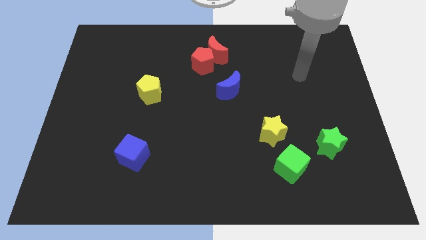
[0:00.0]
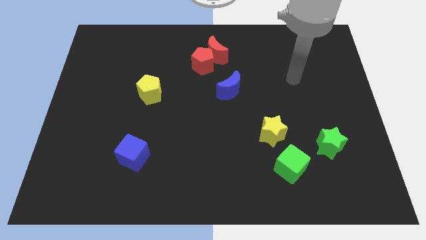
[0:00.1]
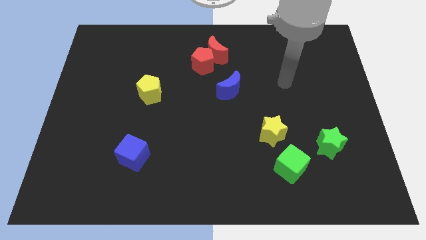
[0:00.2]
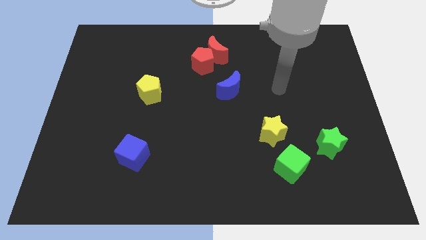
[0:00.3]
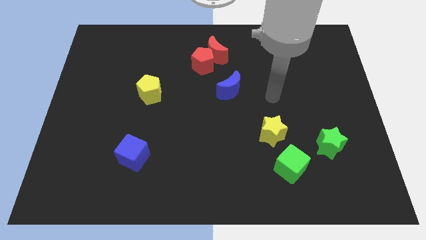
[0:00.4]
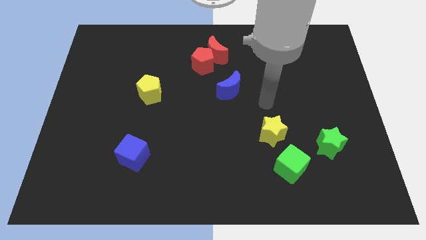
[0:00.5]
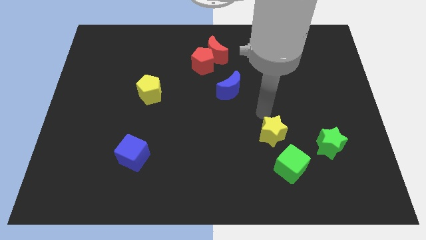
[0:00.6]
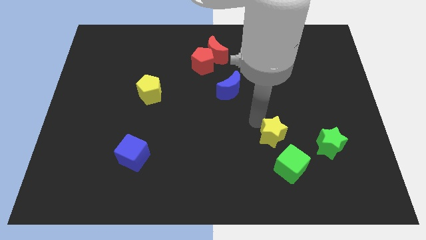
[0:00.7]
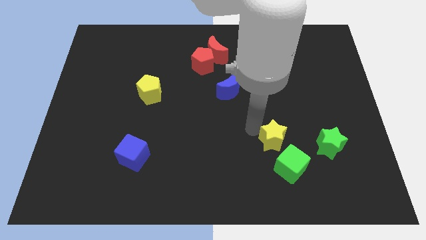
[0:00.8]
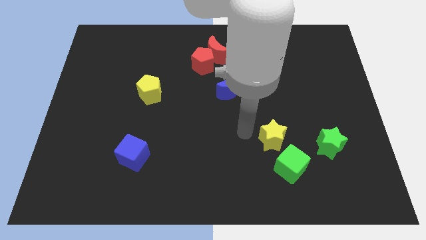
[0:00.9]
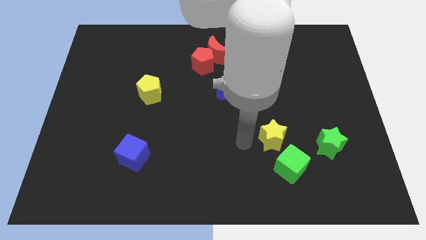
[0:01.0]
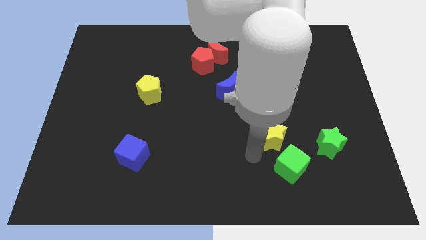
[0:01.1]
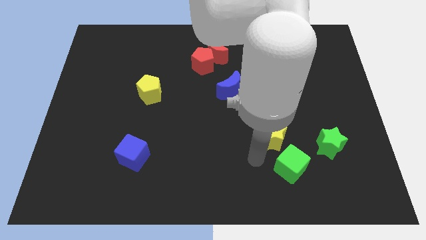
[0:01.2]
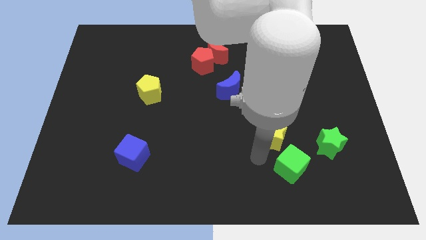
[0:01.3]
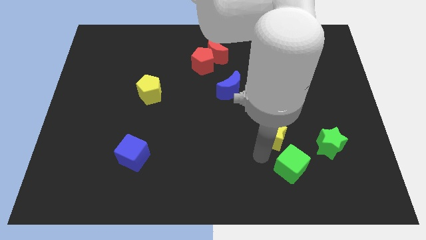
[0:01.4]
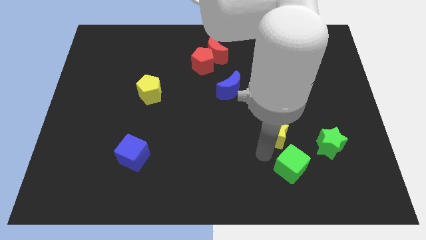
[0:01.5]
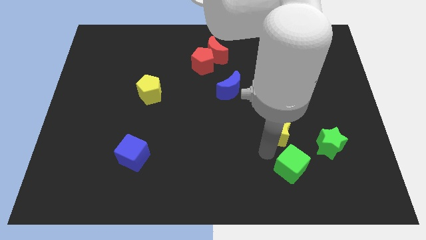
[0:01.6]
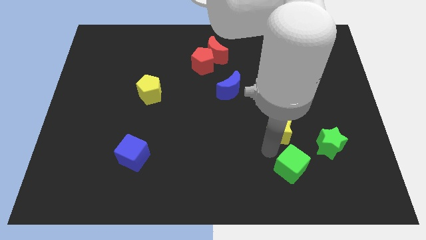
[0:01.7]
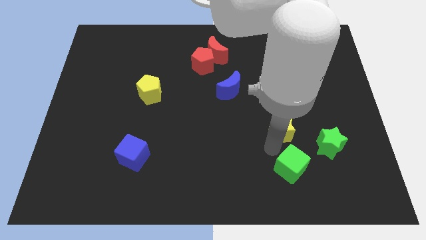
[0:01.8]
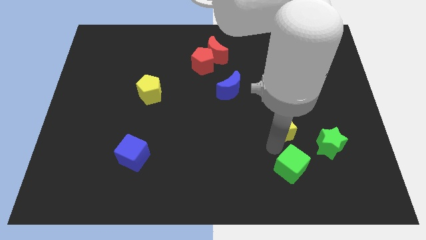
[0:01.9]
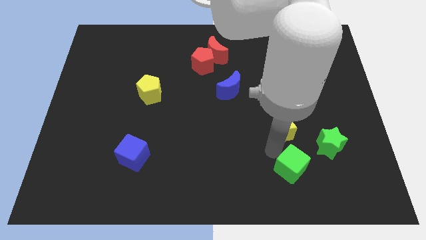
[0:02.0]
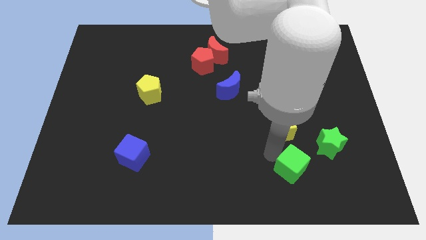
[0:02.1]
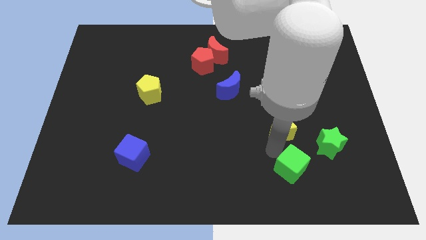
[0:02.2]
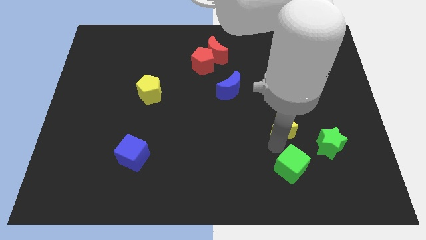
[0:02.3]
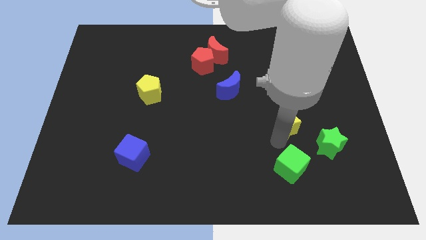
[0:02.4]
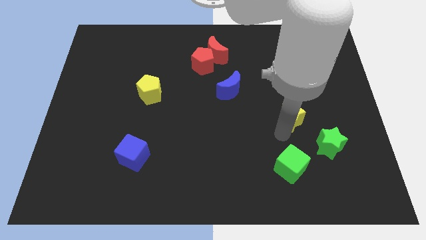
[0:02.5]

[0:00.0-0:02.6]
push the yellow star somewhat up and to the right diagonally

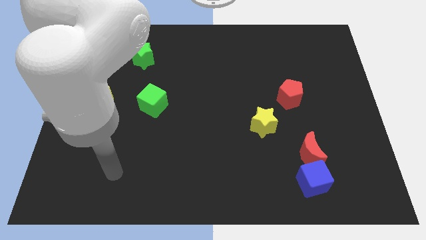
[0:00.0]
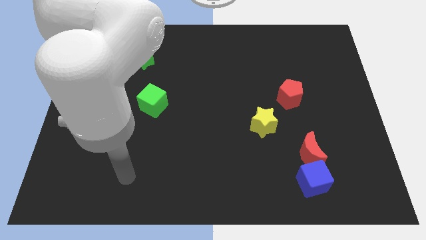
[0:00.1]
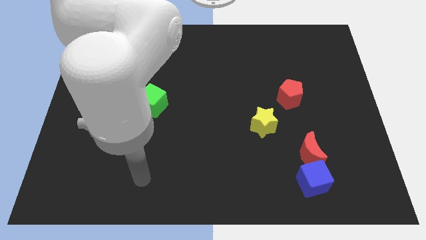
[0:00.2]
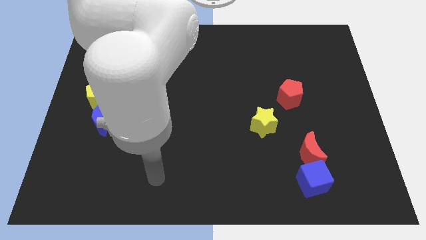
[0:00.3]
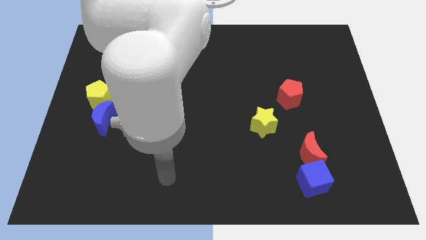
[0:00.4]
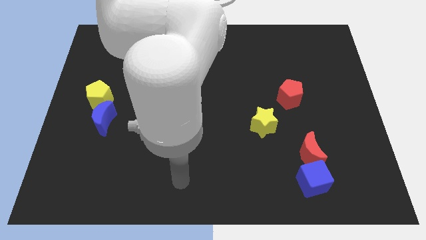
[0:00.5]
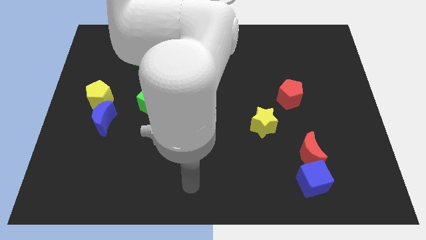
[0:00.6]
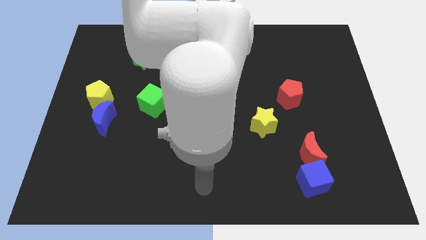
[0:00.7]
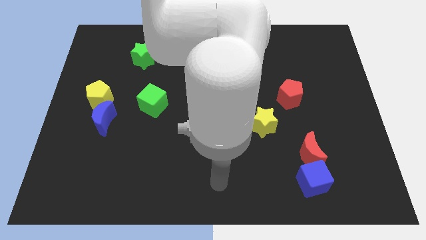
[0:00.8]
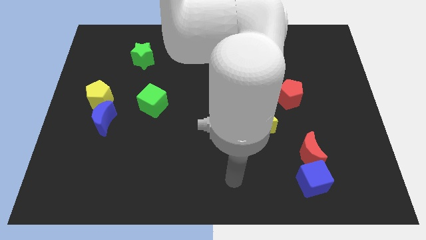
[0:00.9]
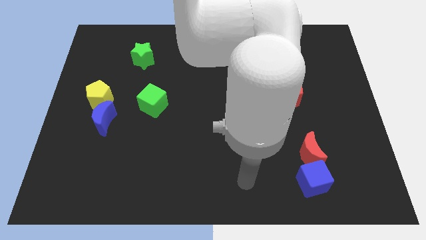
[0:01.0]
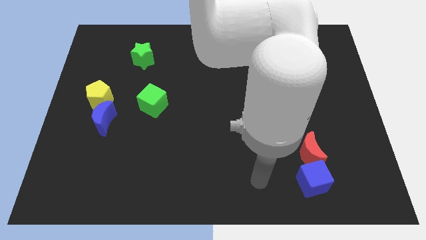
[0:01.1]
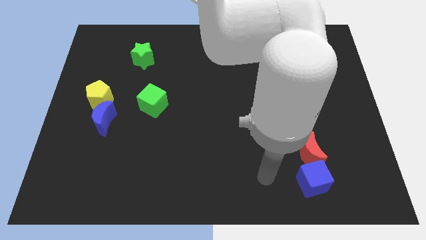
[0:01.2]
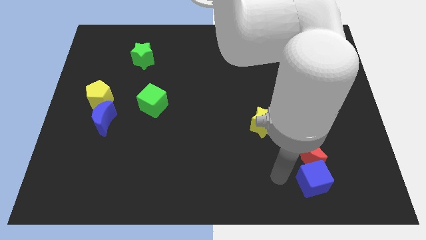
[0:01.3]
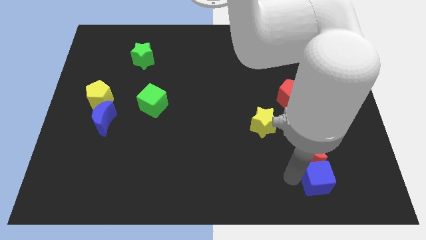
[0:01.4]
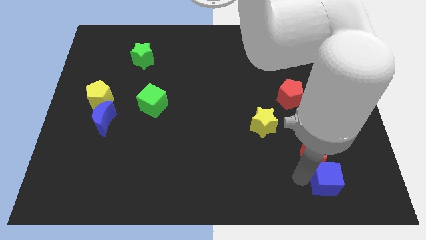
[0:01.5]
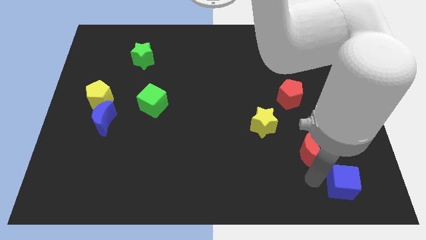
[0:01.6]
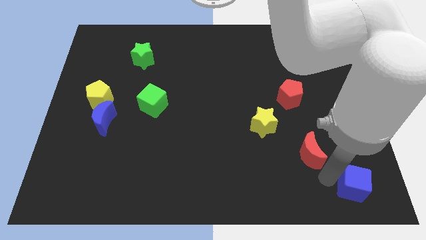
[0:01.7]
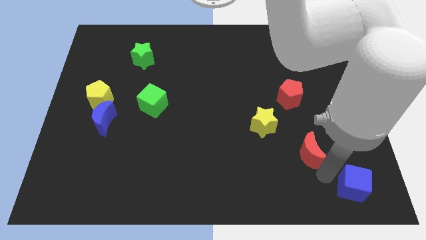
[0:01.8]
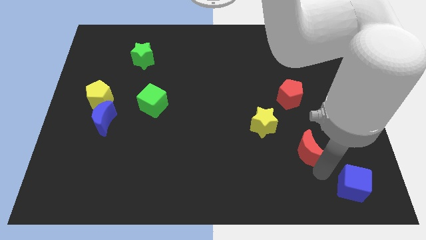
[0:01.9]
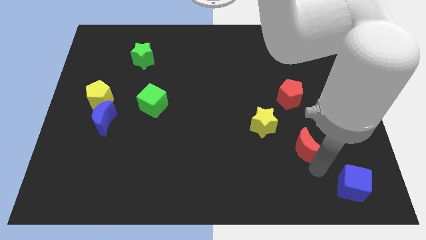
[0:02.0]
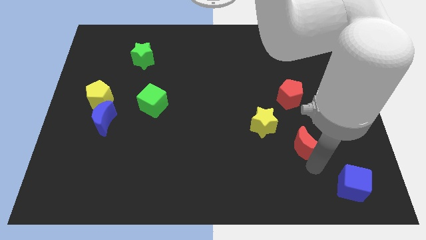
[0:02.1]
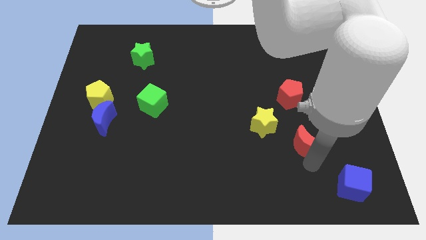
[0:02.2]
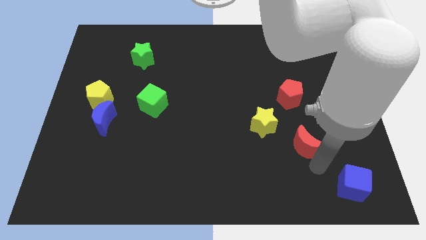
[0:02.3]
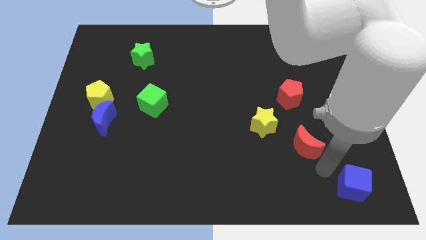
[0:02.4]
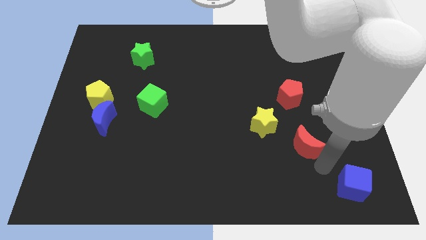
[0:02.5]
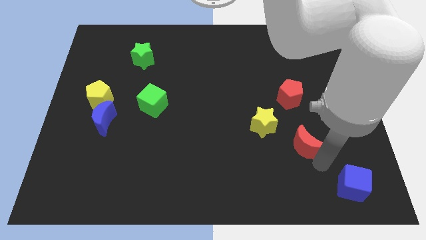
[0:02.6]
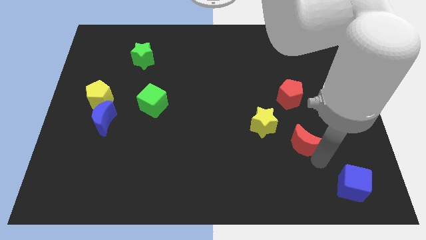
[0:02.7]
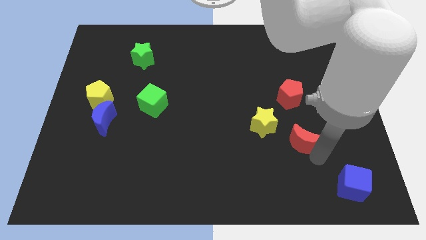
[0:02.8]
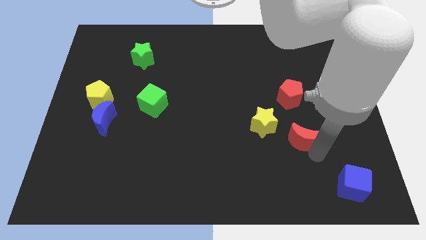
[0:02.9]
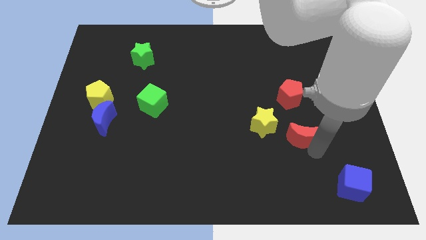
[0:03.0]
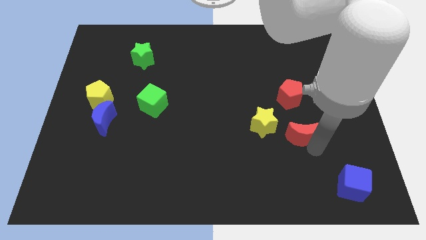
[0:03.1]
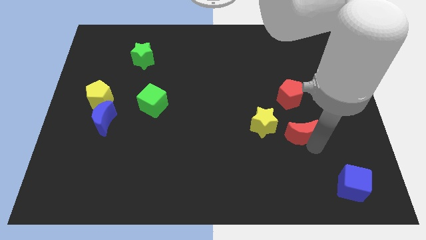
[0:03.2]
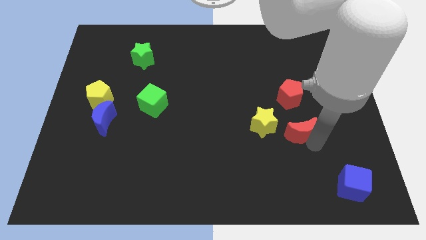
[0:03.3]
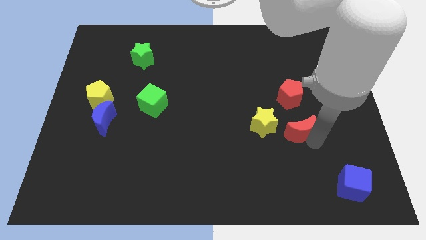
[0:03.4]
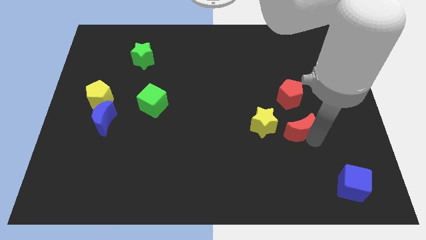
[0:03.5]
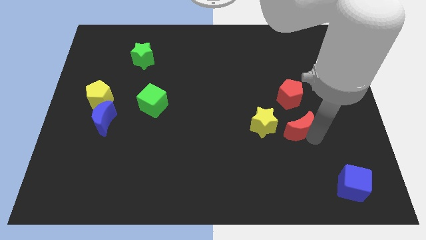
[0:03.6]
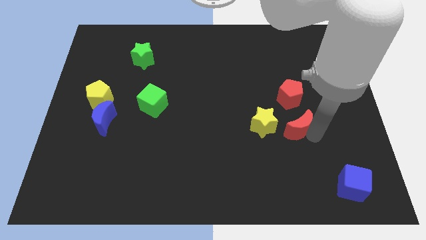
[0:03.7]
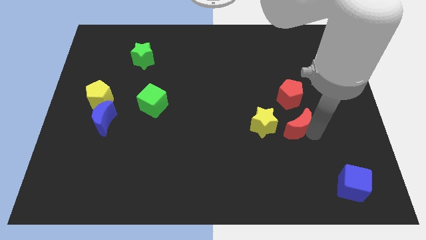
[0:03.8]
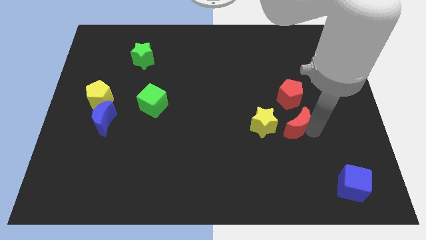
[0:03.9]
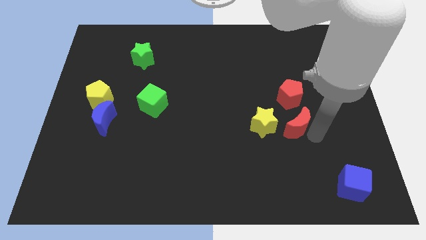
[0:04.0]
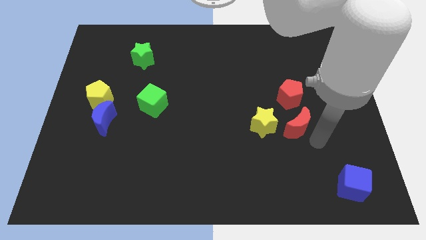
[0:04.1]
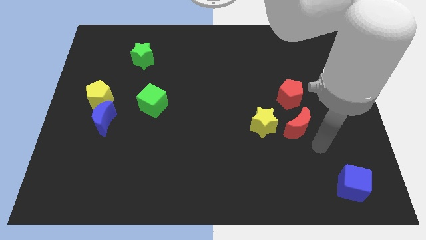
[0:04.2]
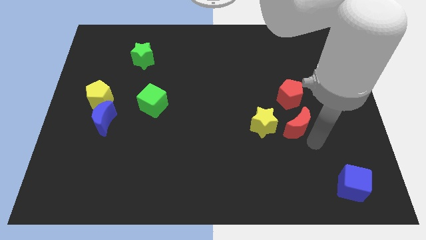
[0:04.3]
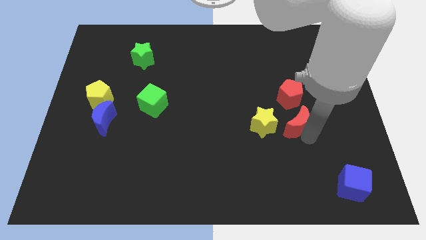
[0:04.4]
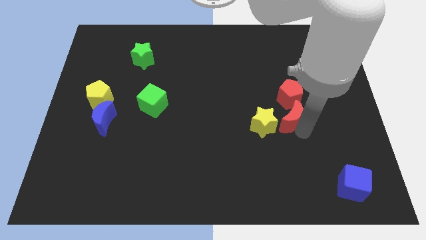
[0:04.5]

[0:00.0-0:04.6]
move the red moon a little bit up and then left

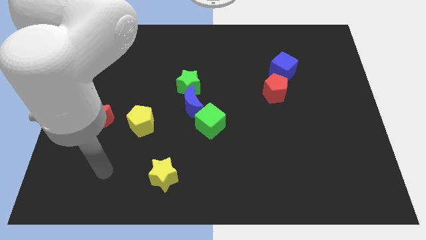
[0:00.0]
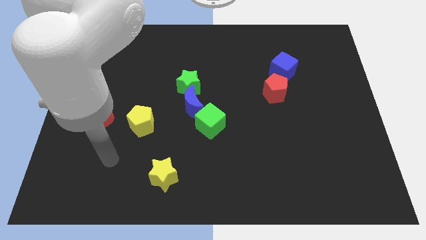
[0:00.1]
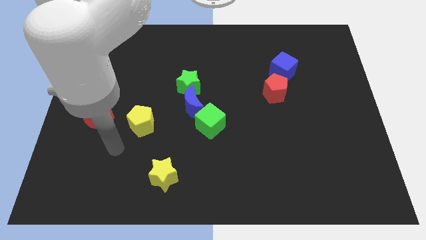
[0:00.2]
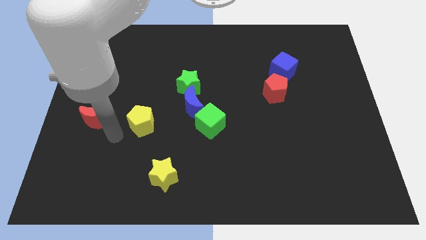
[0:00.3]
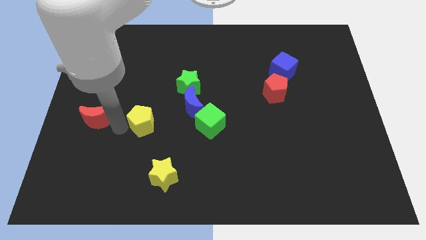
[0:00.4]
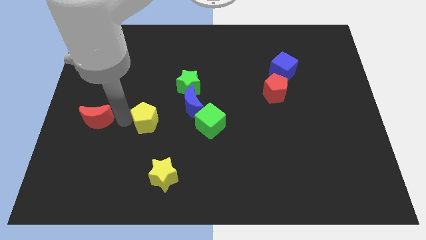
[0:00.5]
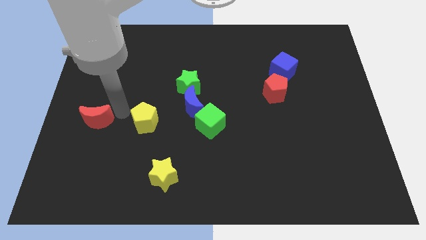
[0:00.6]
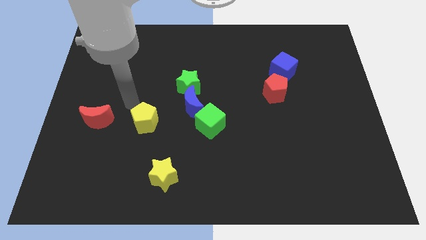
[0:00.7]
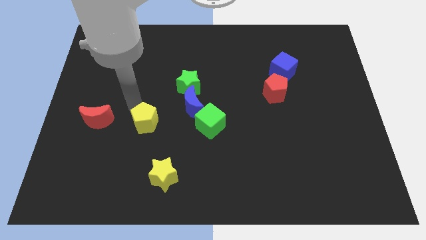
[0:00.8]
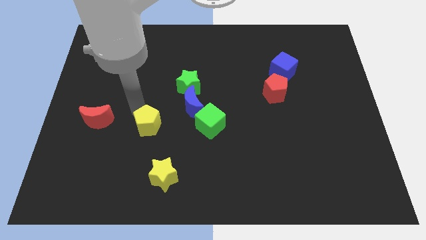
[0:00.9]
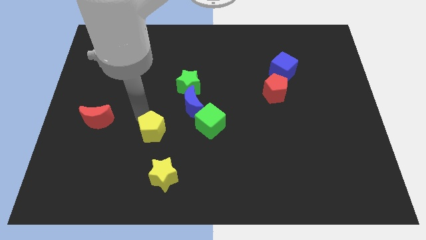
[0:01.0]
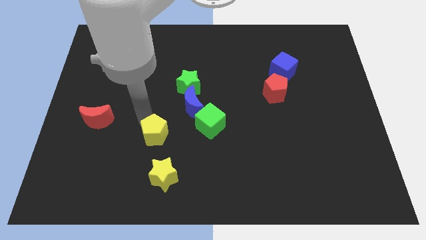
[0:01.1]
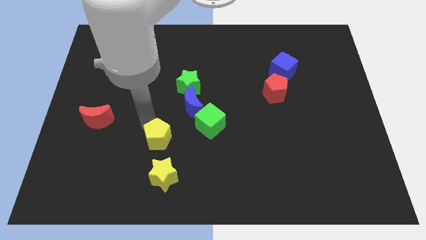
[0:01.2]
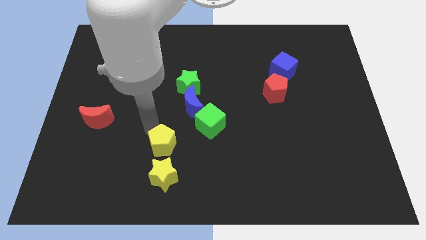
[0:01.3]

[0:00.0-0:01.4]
slightly move the yellow pentagon down and right diagonally
